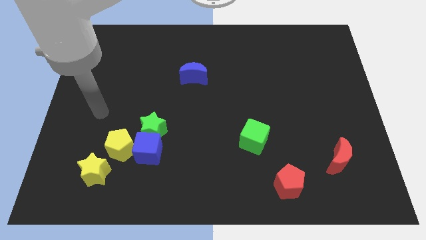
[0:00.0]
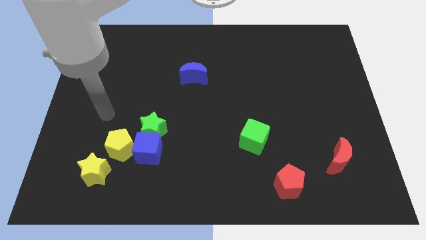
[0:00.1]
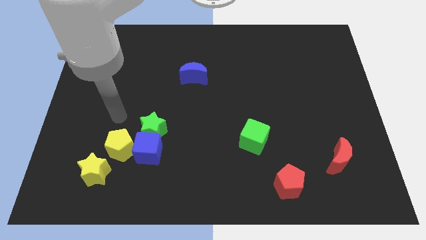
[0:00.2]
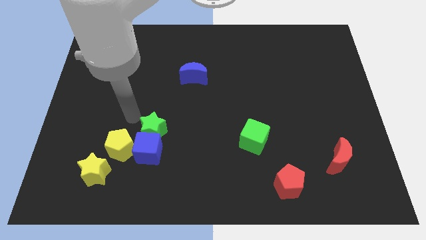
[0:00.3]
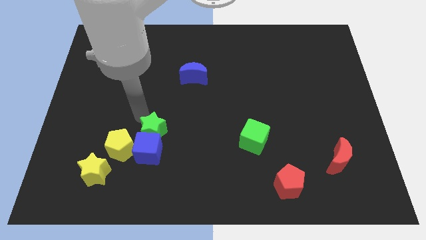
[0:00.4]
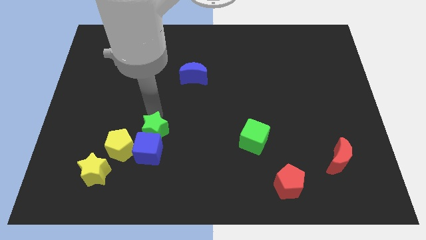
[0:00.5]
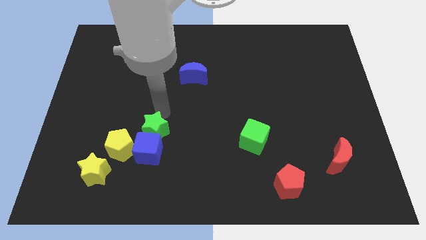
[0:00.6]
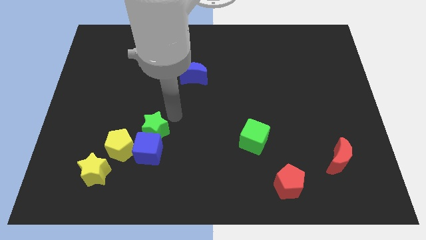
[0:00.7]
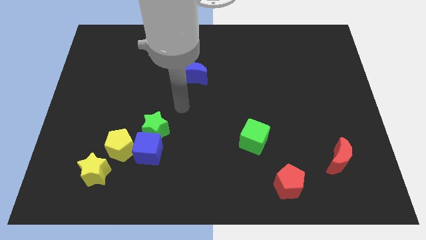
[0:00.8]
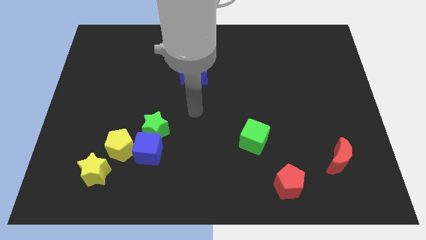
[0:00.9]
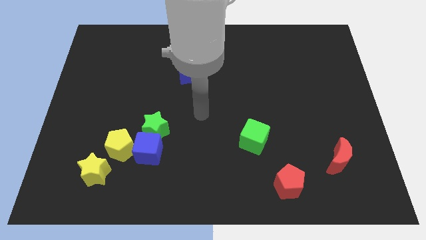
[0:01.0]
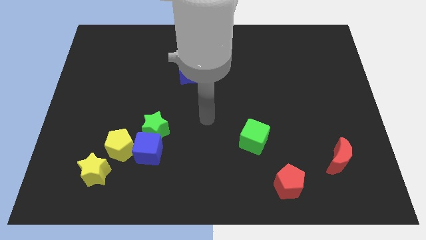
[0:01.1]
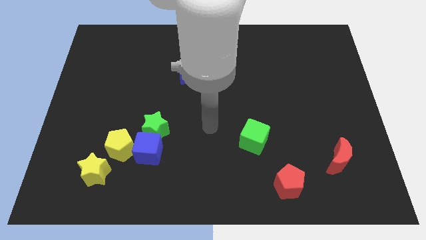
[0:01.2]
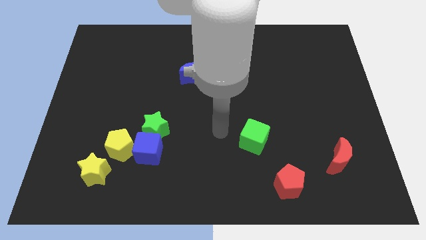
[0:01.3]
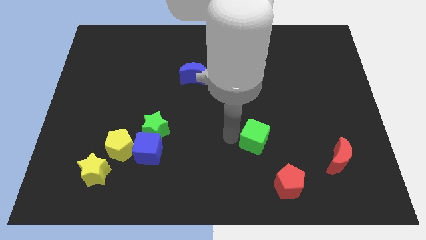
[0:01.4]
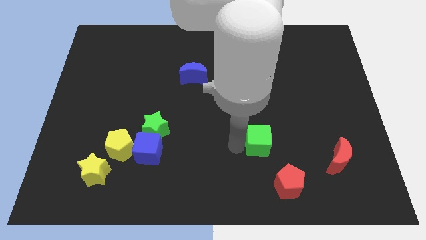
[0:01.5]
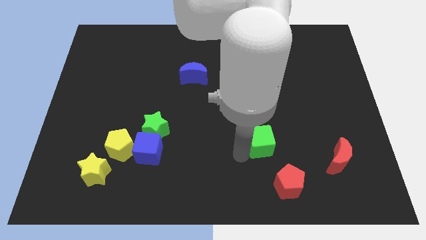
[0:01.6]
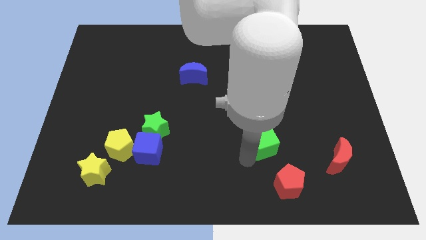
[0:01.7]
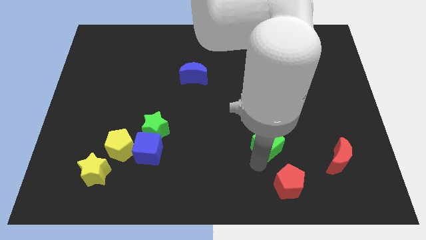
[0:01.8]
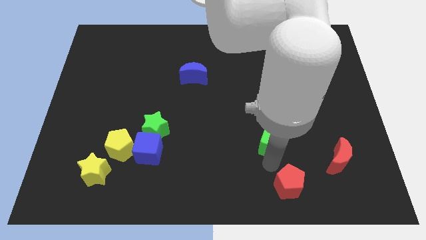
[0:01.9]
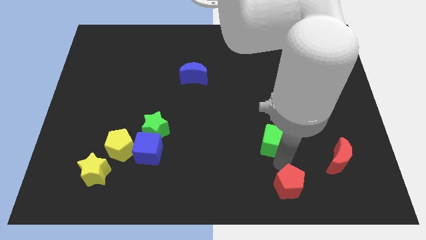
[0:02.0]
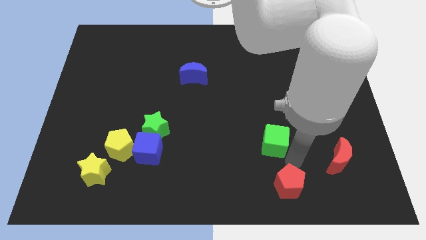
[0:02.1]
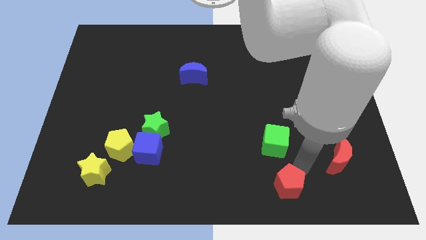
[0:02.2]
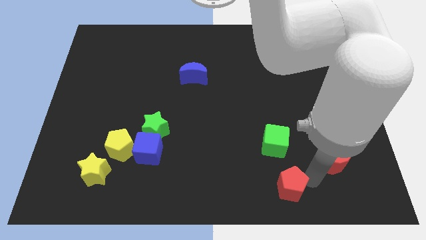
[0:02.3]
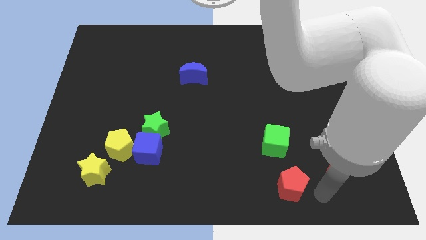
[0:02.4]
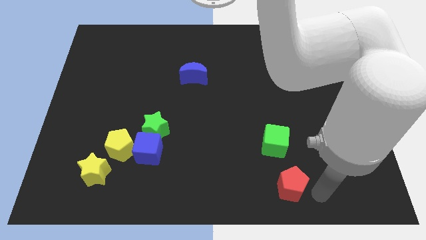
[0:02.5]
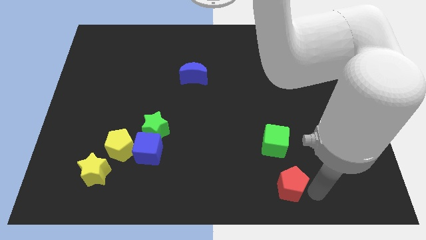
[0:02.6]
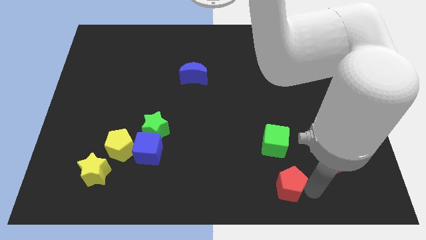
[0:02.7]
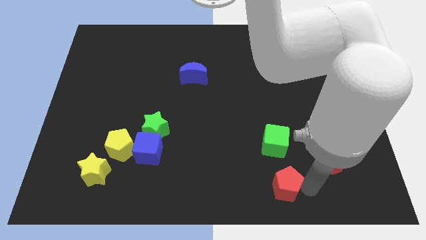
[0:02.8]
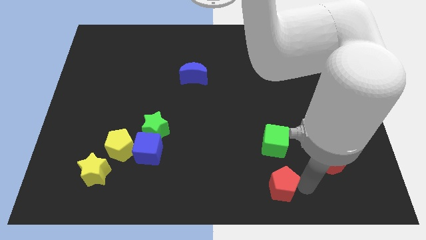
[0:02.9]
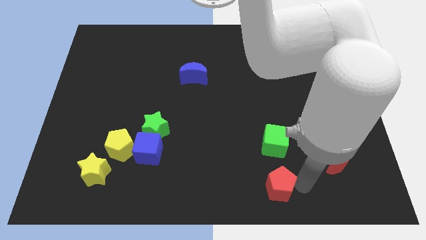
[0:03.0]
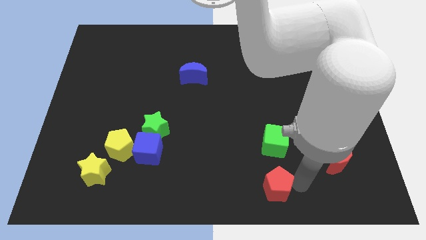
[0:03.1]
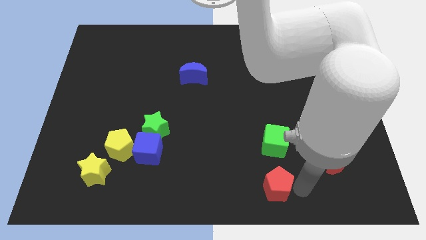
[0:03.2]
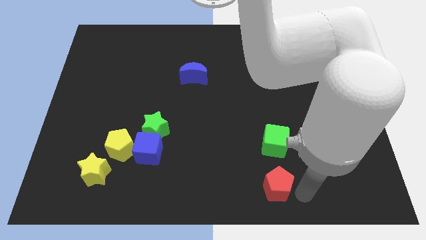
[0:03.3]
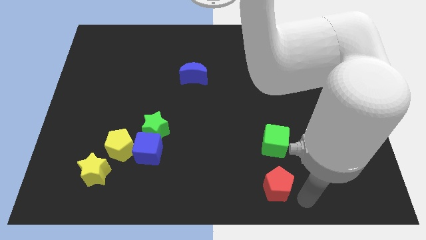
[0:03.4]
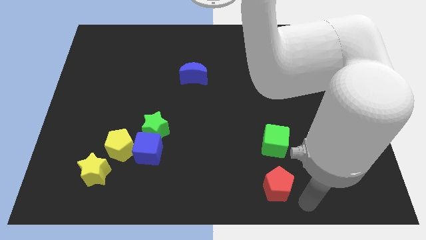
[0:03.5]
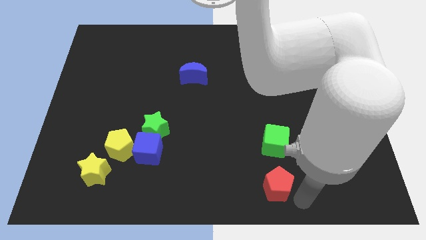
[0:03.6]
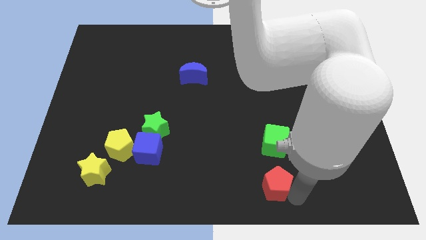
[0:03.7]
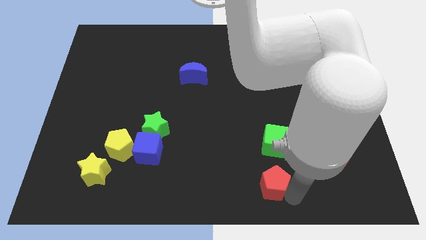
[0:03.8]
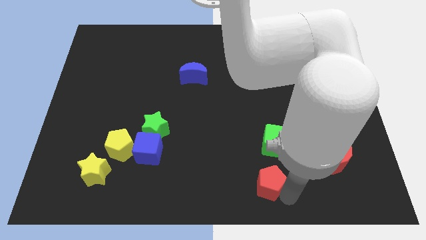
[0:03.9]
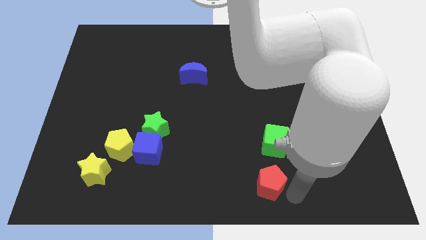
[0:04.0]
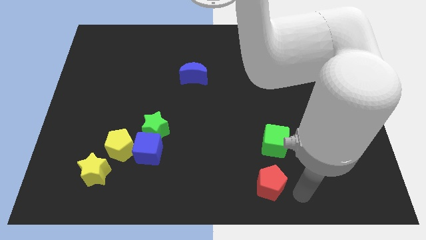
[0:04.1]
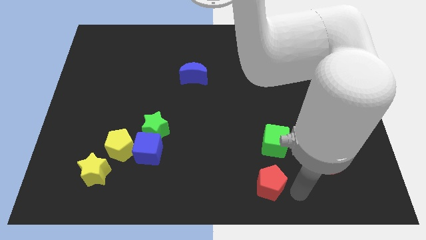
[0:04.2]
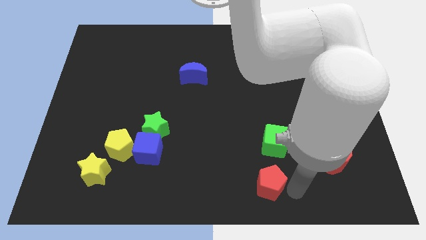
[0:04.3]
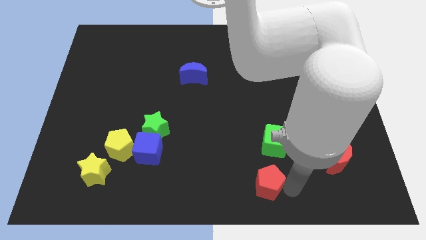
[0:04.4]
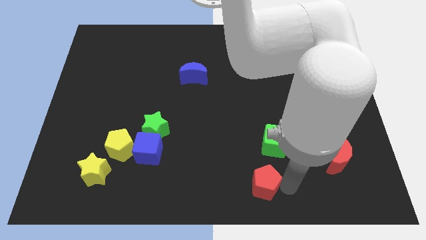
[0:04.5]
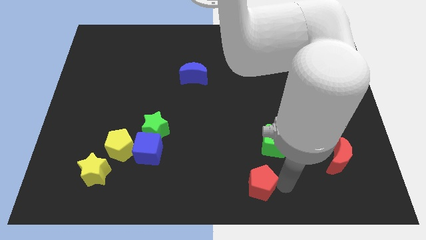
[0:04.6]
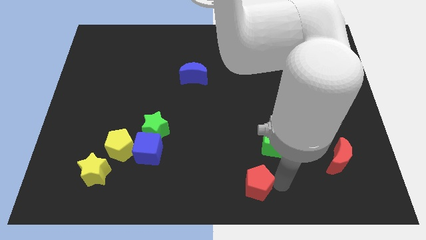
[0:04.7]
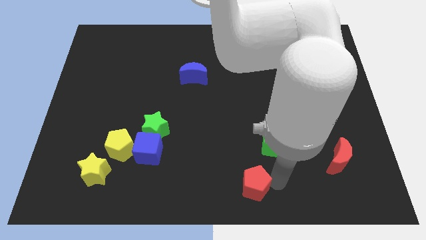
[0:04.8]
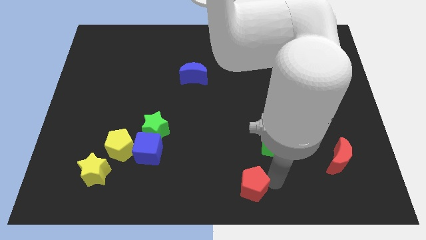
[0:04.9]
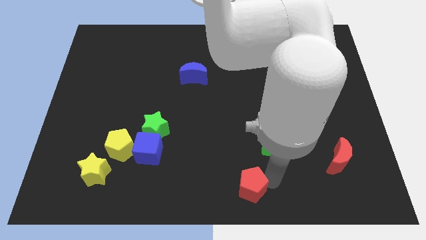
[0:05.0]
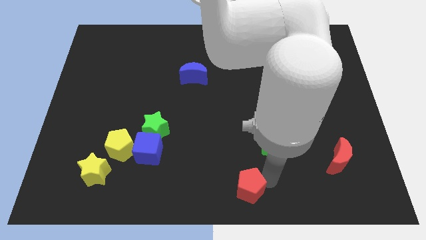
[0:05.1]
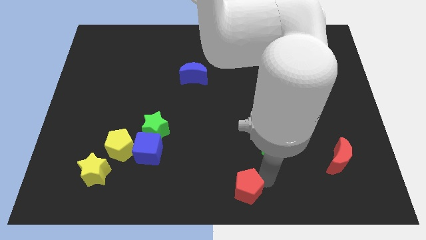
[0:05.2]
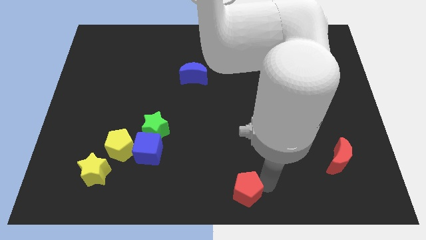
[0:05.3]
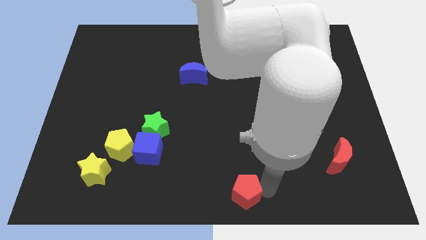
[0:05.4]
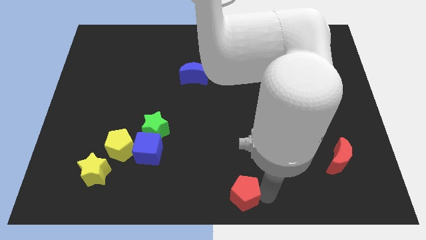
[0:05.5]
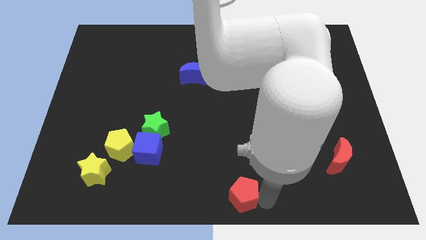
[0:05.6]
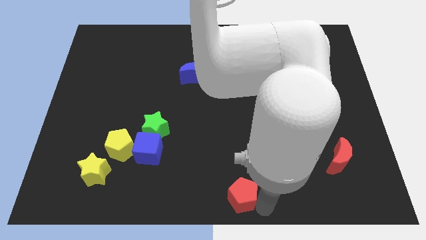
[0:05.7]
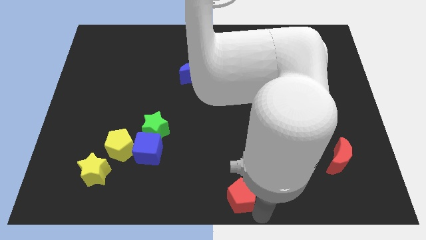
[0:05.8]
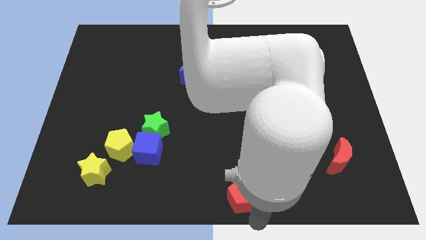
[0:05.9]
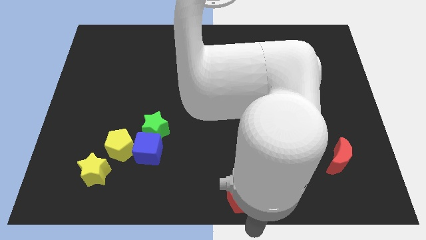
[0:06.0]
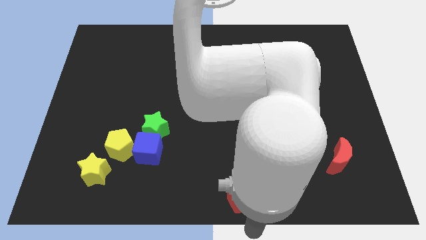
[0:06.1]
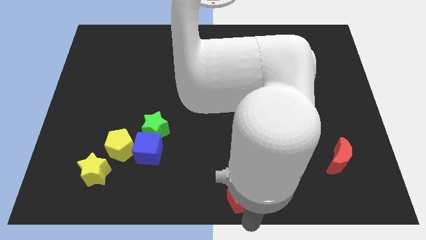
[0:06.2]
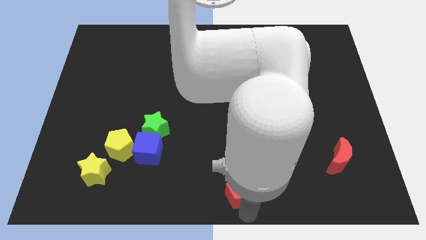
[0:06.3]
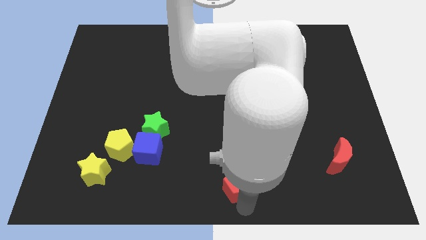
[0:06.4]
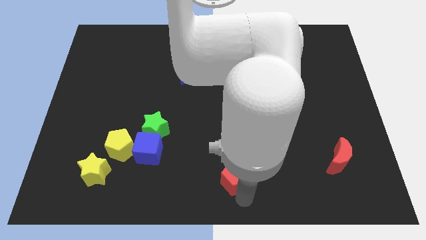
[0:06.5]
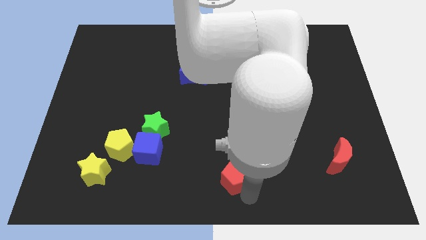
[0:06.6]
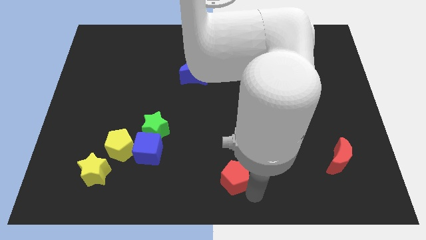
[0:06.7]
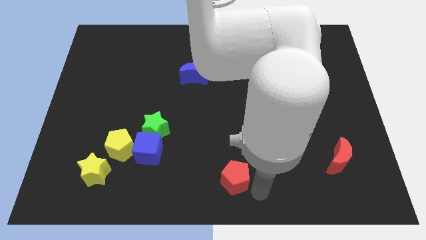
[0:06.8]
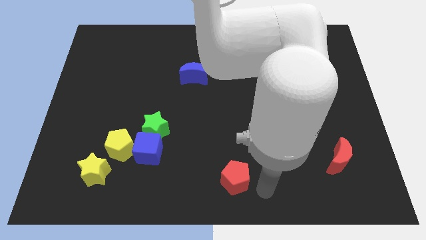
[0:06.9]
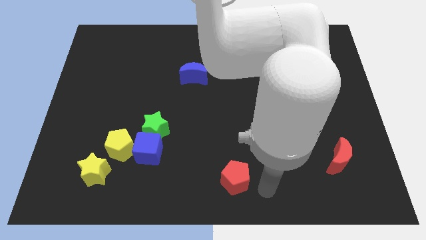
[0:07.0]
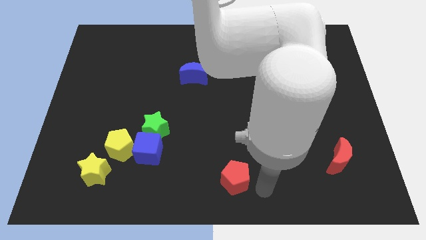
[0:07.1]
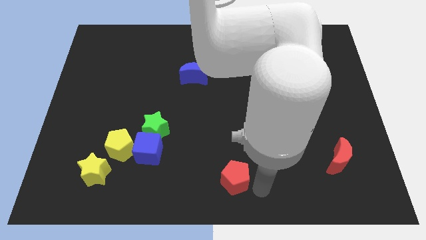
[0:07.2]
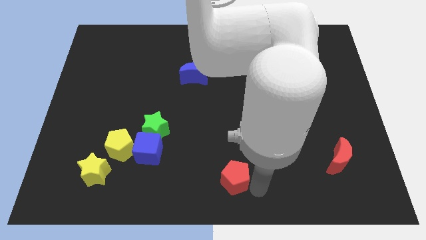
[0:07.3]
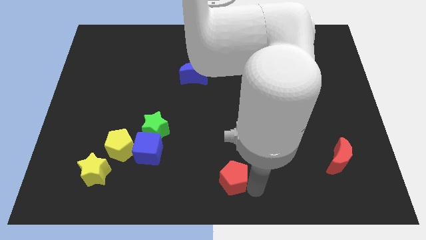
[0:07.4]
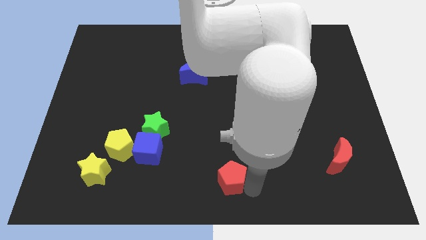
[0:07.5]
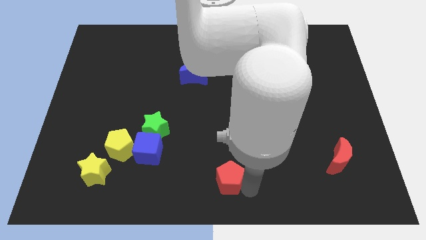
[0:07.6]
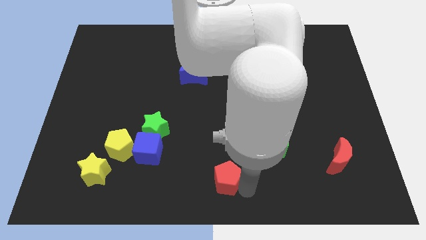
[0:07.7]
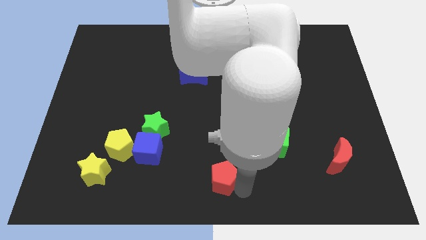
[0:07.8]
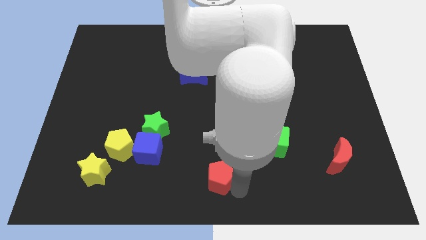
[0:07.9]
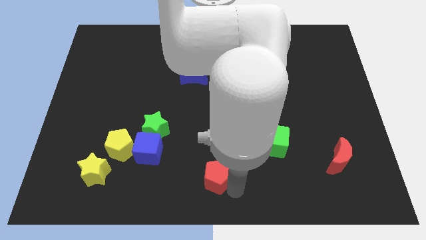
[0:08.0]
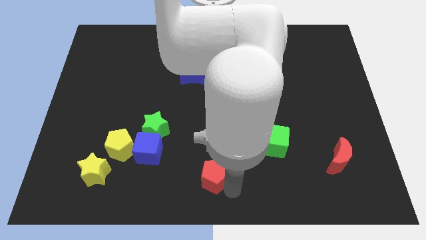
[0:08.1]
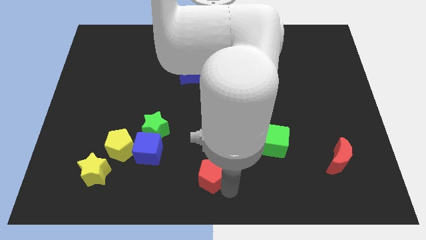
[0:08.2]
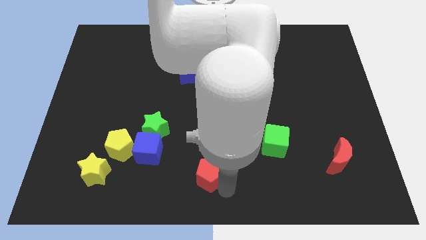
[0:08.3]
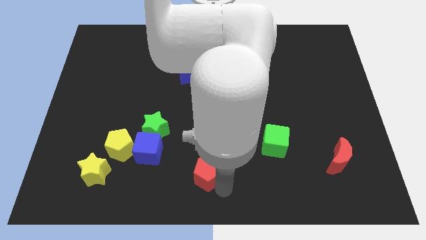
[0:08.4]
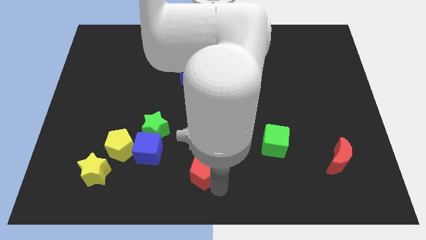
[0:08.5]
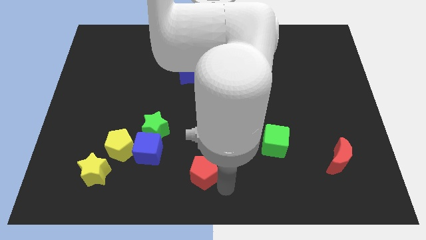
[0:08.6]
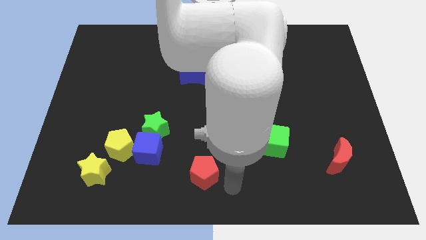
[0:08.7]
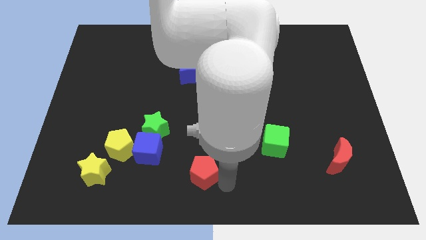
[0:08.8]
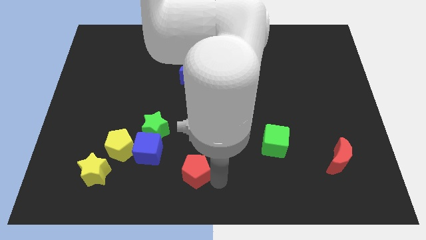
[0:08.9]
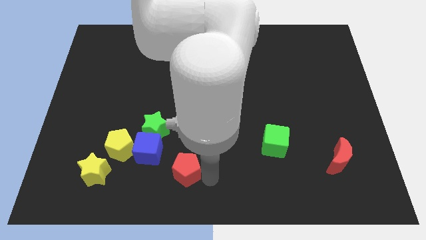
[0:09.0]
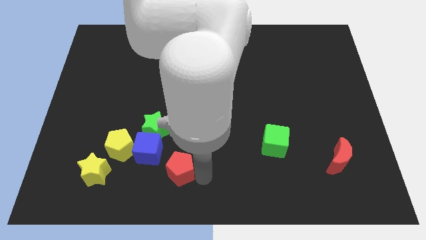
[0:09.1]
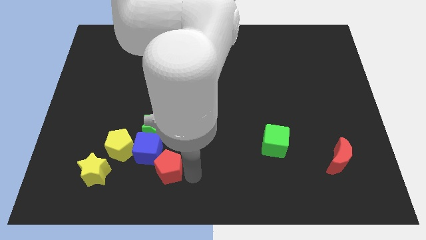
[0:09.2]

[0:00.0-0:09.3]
move the red pentagon next to the blue cube
